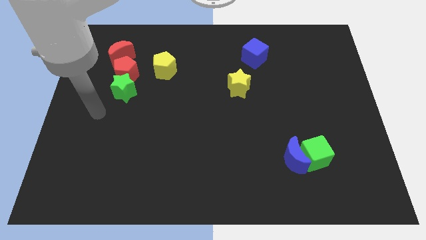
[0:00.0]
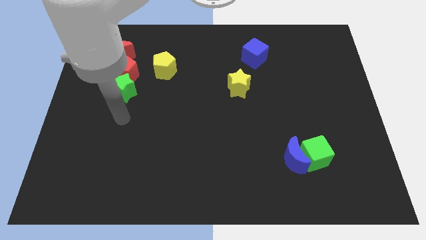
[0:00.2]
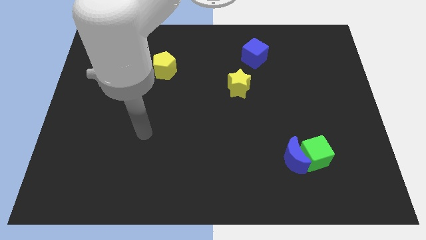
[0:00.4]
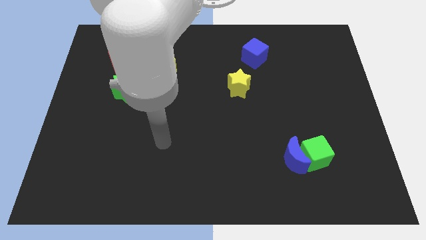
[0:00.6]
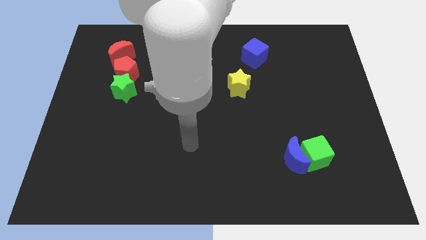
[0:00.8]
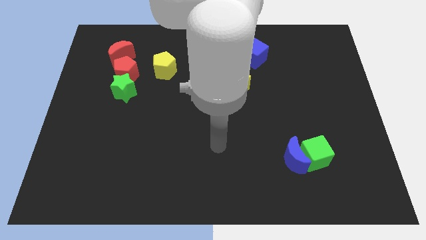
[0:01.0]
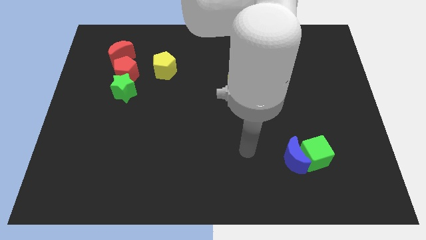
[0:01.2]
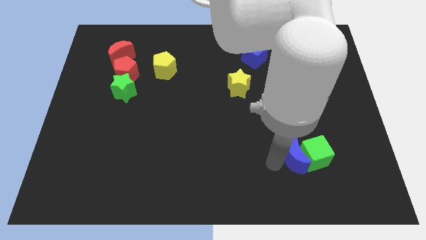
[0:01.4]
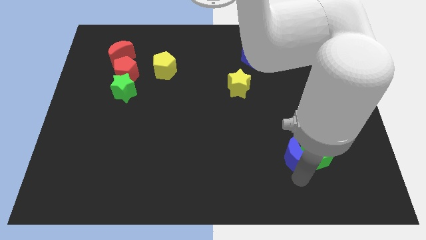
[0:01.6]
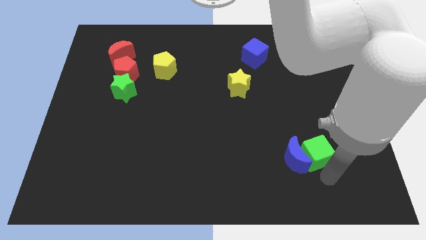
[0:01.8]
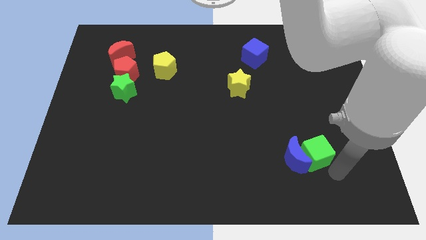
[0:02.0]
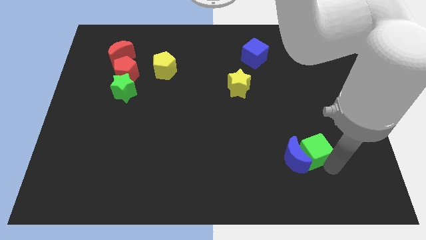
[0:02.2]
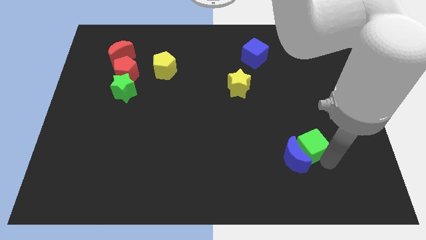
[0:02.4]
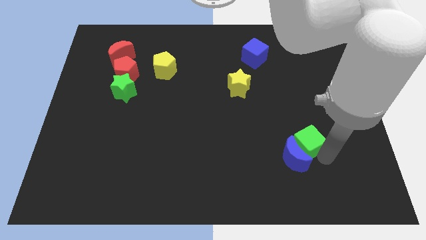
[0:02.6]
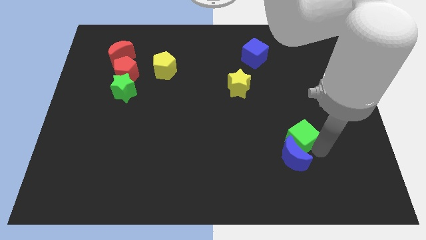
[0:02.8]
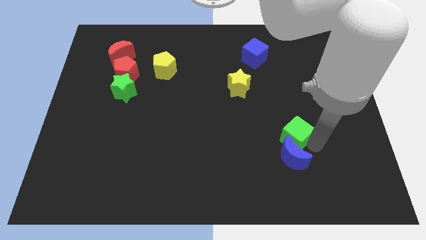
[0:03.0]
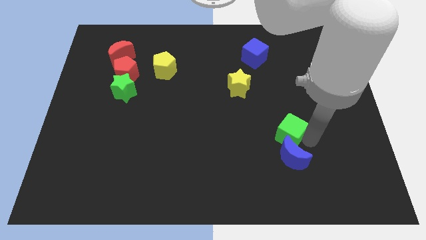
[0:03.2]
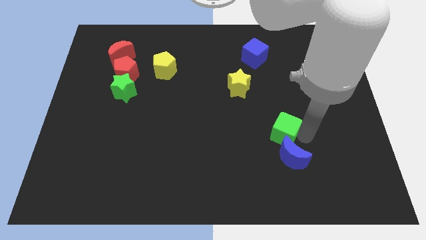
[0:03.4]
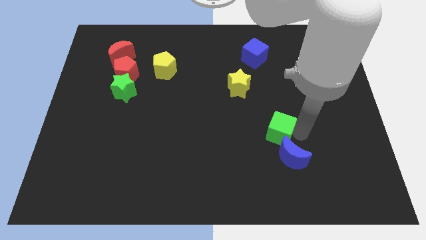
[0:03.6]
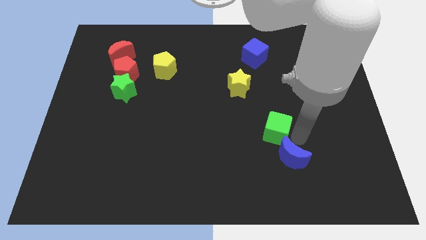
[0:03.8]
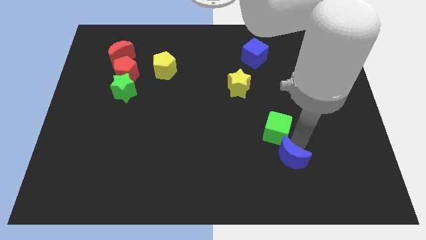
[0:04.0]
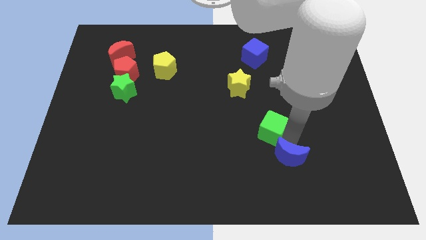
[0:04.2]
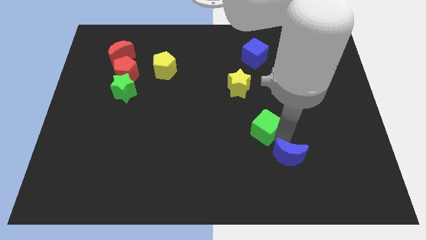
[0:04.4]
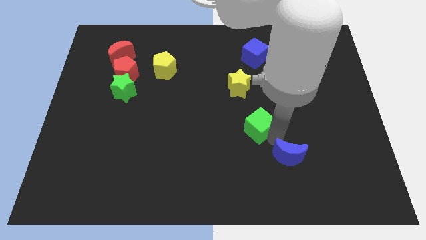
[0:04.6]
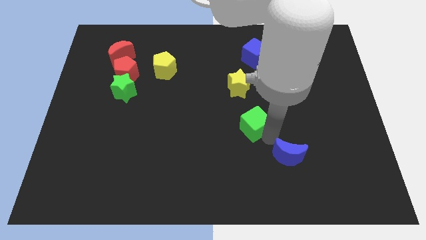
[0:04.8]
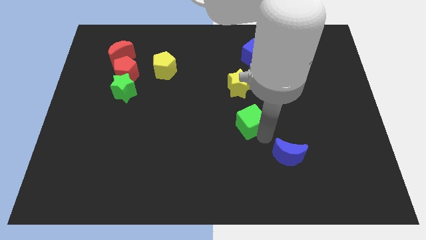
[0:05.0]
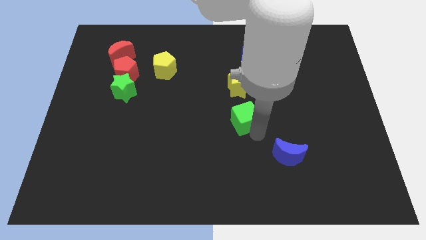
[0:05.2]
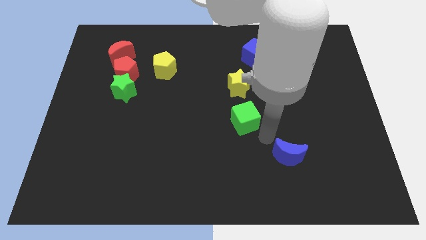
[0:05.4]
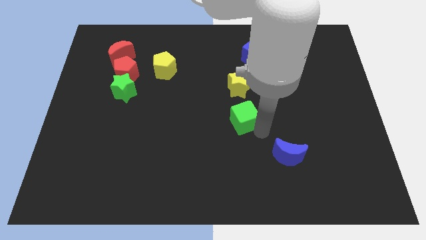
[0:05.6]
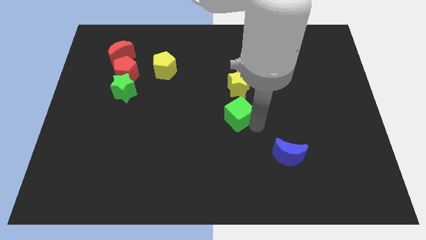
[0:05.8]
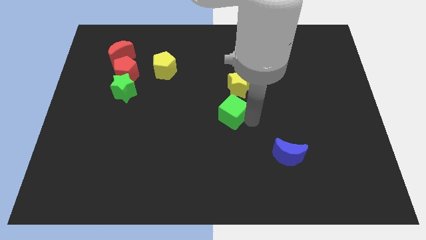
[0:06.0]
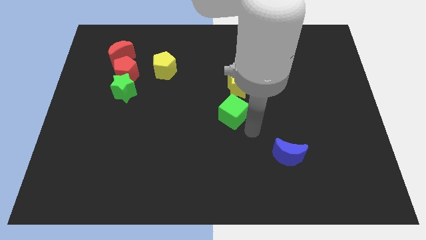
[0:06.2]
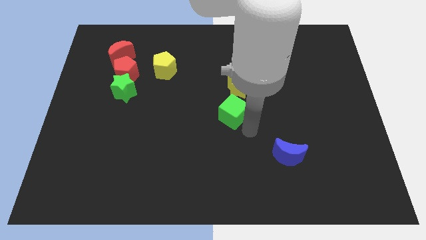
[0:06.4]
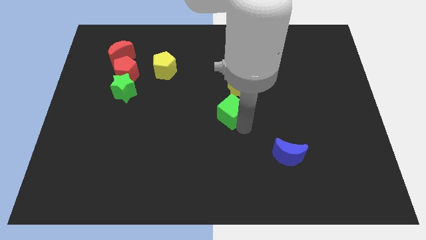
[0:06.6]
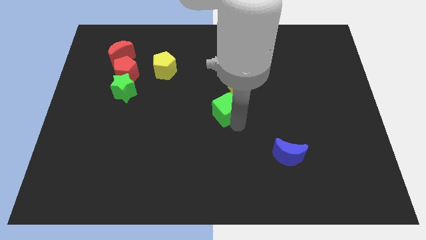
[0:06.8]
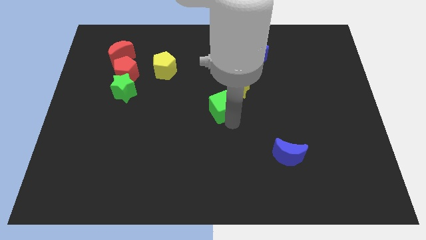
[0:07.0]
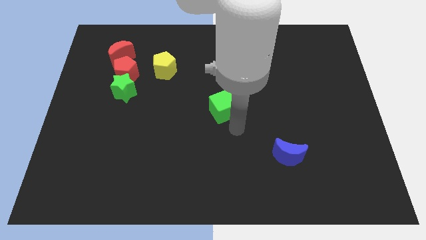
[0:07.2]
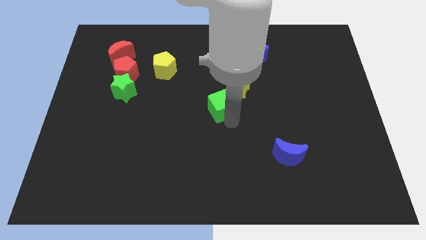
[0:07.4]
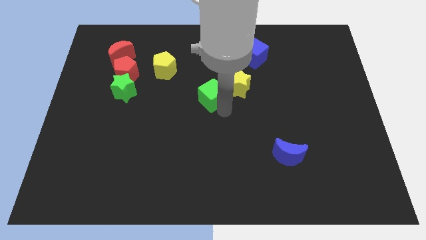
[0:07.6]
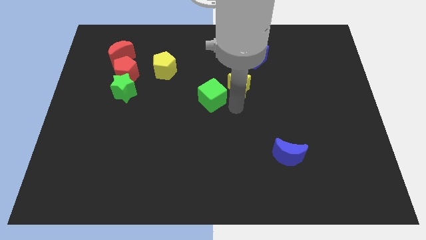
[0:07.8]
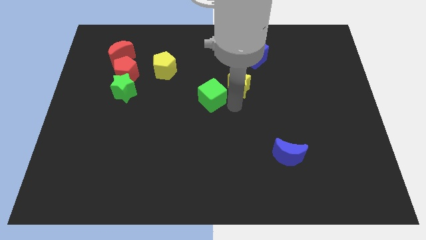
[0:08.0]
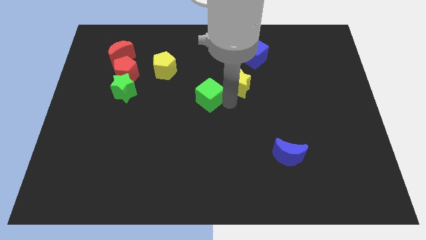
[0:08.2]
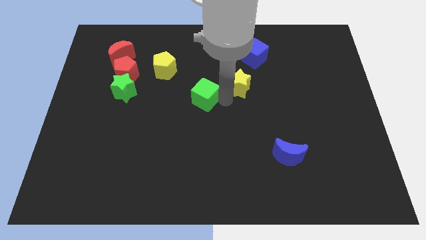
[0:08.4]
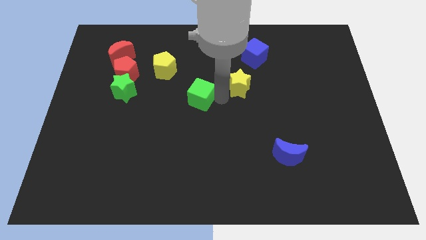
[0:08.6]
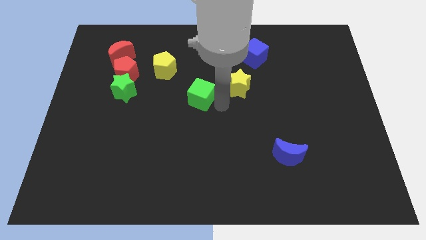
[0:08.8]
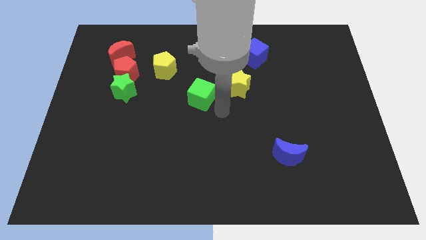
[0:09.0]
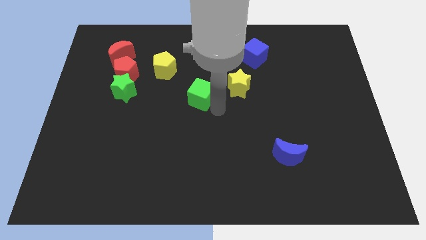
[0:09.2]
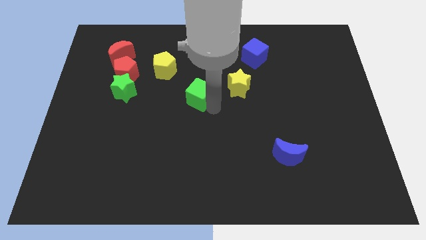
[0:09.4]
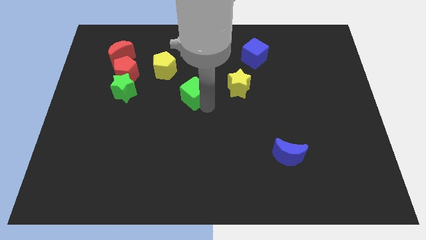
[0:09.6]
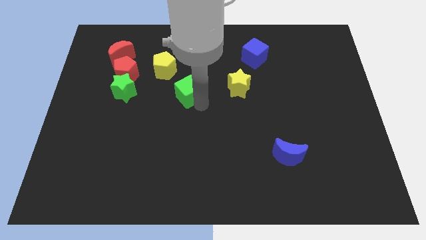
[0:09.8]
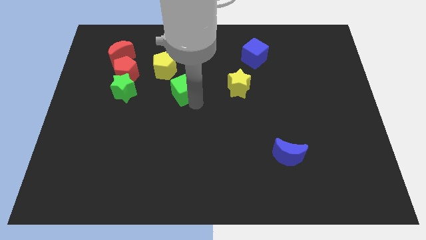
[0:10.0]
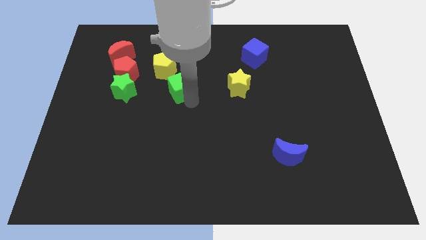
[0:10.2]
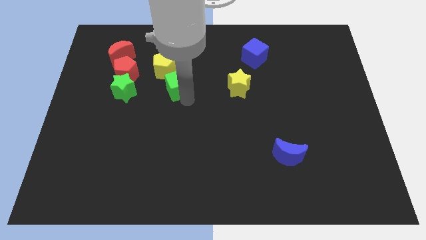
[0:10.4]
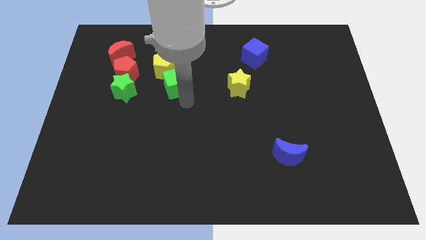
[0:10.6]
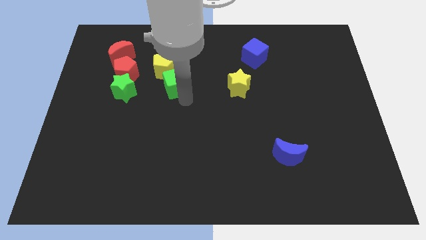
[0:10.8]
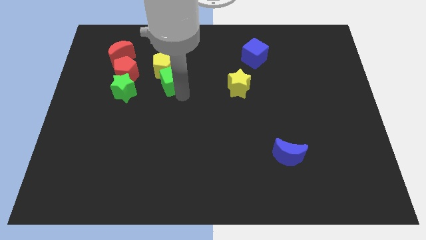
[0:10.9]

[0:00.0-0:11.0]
put the green cube next to the yellow pentagon

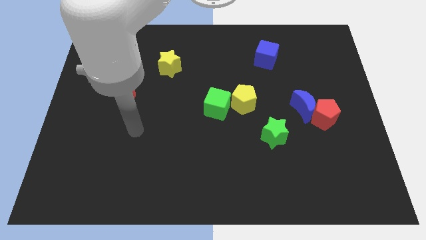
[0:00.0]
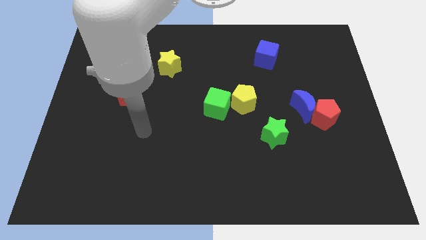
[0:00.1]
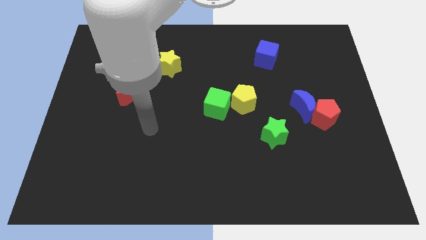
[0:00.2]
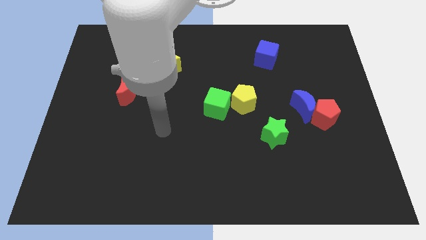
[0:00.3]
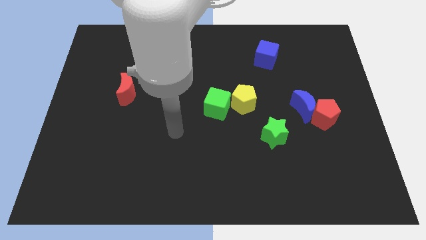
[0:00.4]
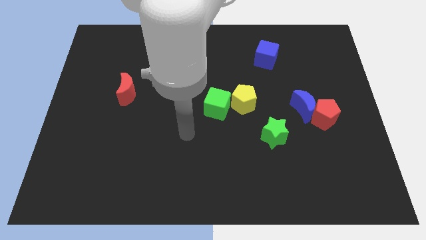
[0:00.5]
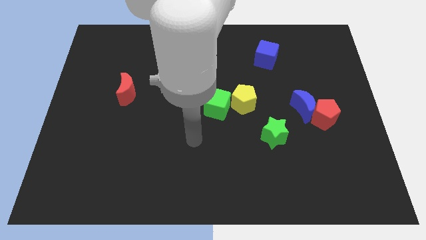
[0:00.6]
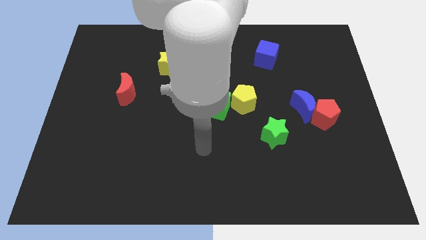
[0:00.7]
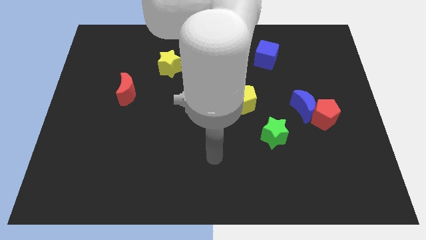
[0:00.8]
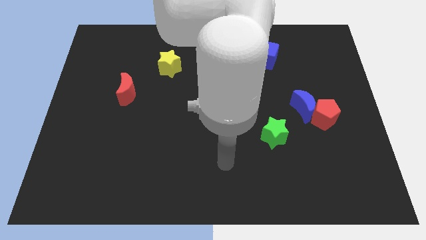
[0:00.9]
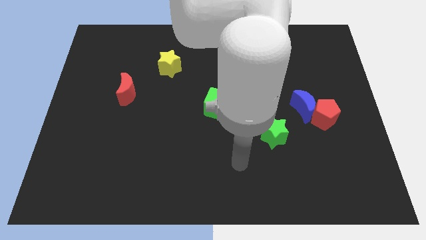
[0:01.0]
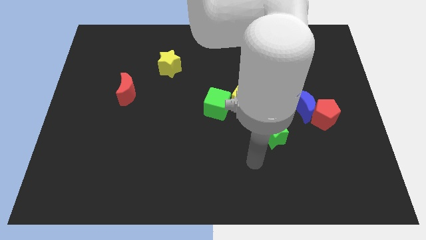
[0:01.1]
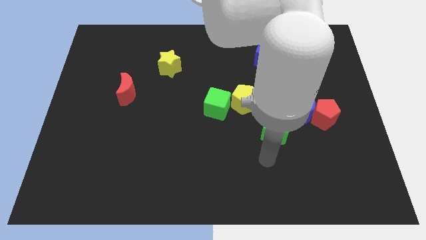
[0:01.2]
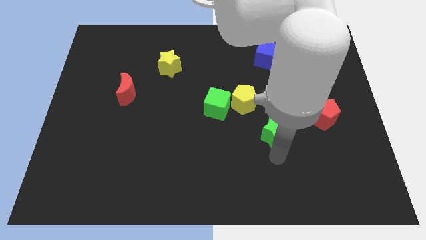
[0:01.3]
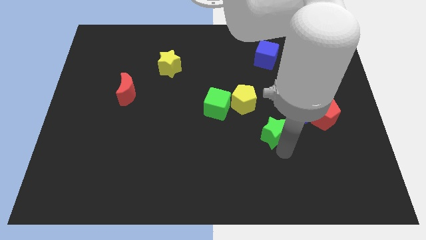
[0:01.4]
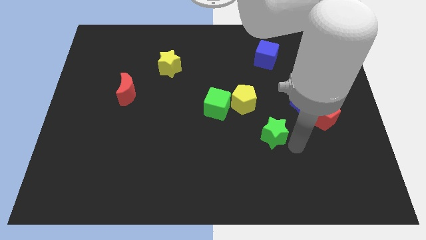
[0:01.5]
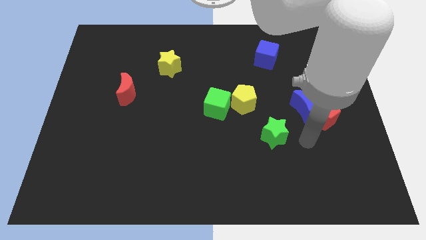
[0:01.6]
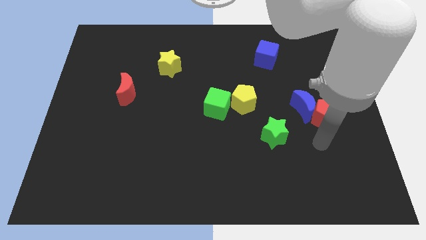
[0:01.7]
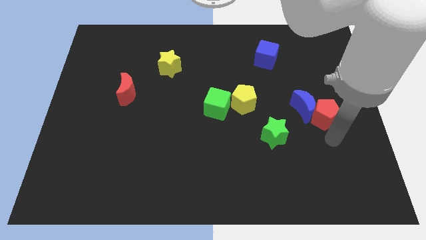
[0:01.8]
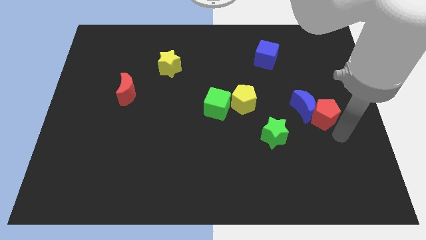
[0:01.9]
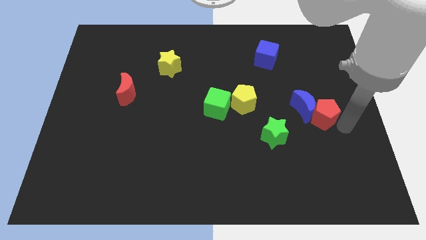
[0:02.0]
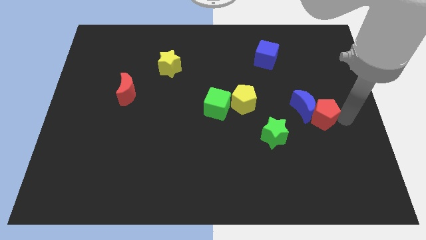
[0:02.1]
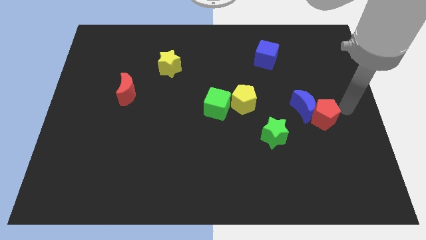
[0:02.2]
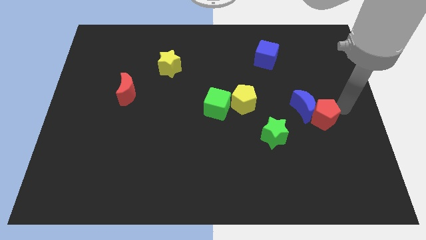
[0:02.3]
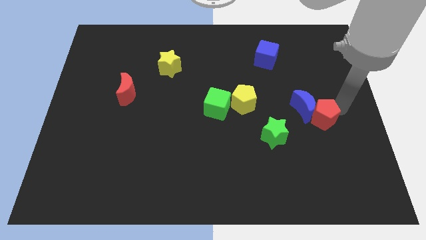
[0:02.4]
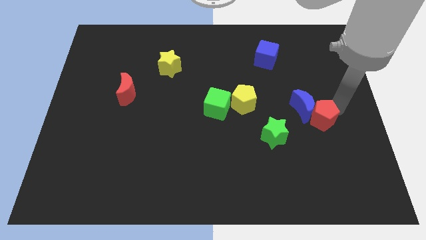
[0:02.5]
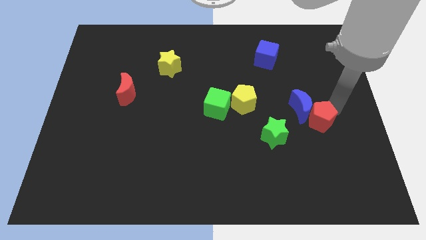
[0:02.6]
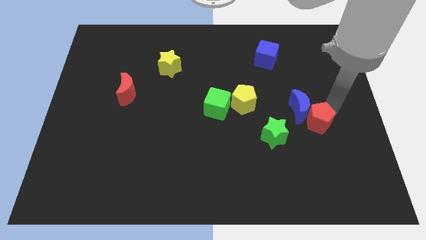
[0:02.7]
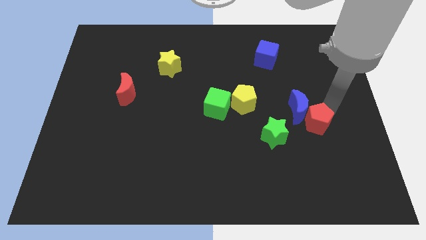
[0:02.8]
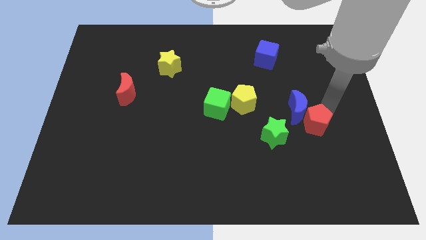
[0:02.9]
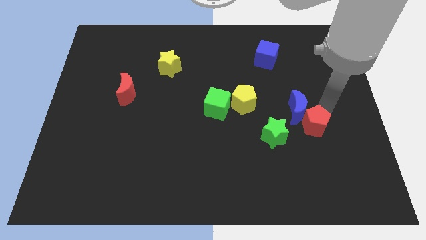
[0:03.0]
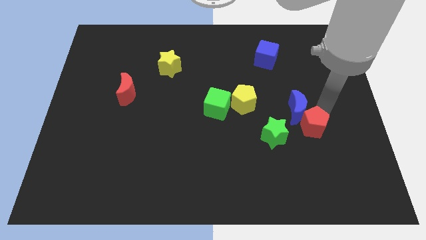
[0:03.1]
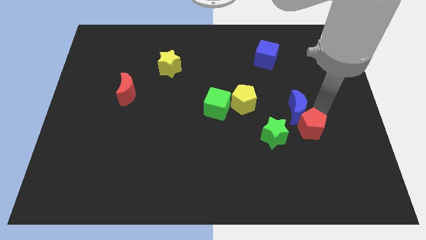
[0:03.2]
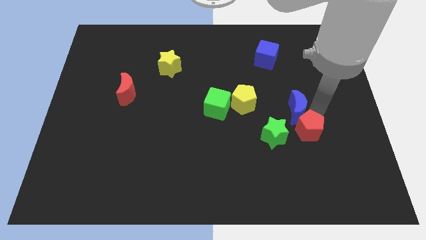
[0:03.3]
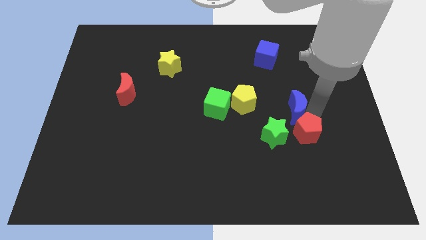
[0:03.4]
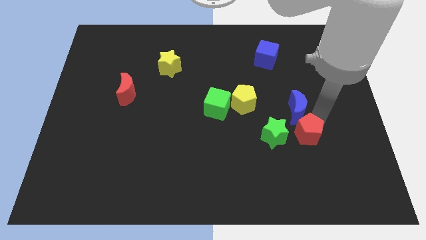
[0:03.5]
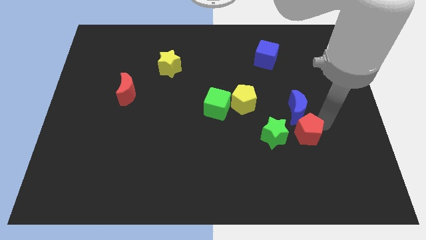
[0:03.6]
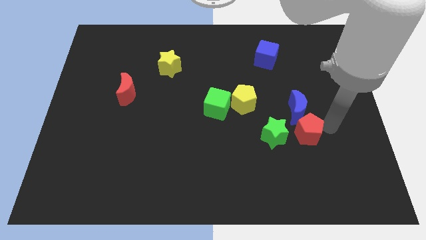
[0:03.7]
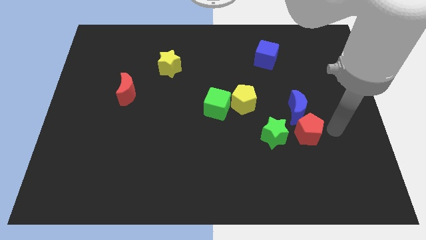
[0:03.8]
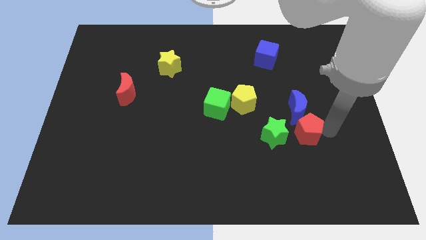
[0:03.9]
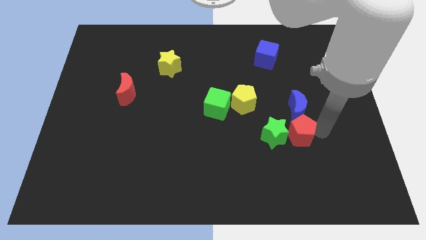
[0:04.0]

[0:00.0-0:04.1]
move the red pentagon close to the green star
